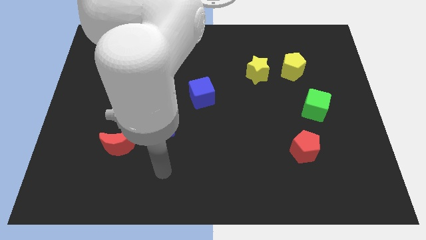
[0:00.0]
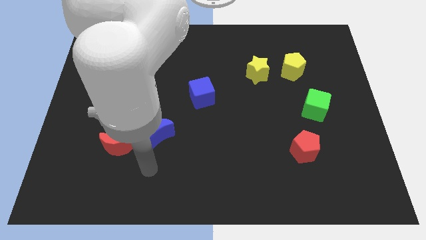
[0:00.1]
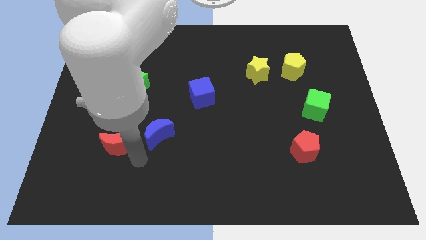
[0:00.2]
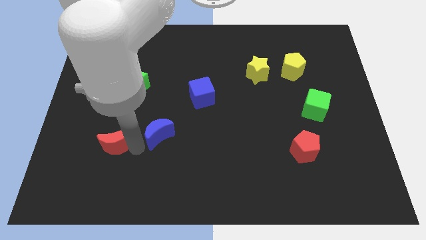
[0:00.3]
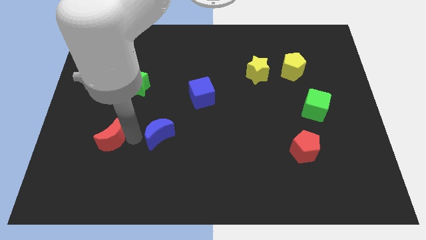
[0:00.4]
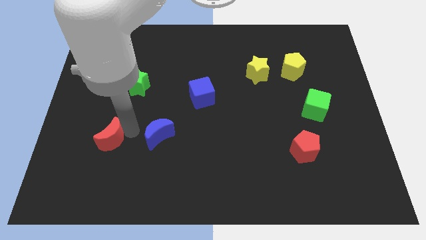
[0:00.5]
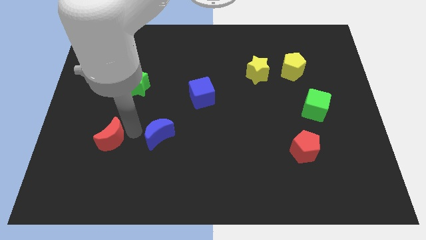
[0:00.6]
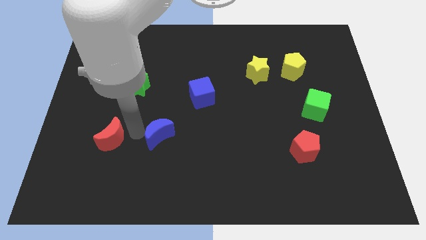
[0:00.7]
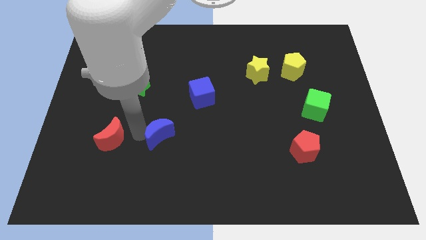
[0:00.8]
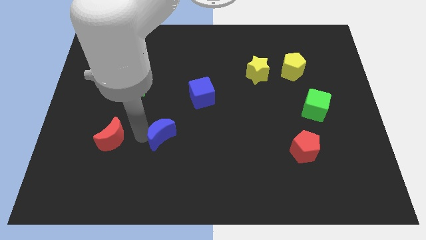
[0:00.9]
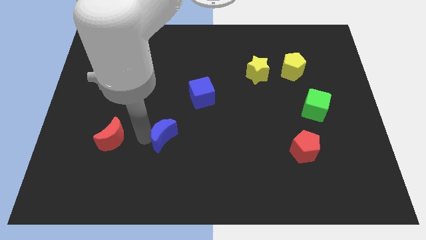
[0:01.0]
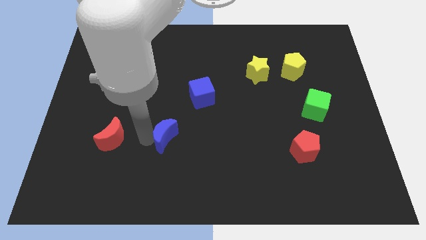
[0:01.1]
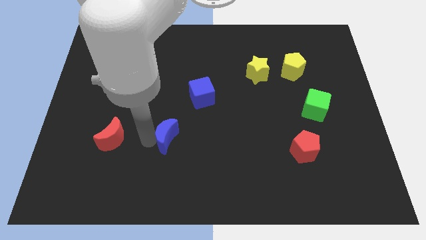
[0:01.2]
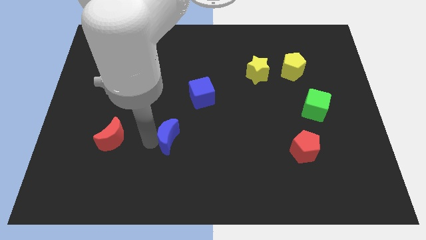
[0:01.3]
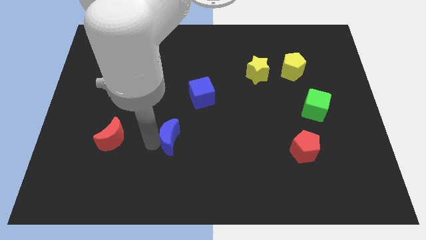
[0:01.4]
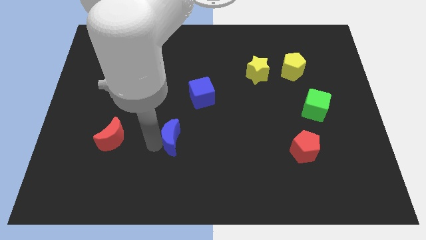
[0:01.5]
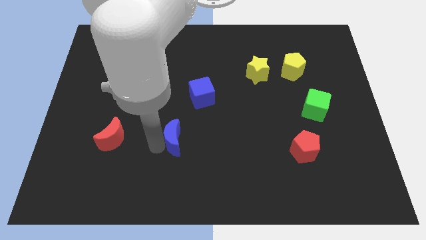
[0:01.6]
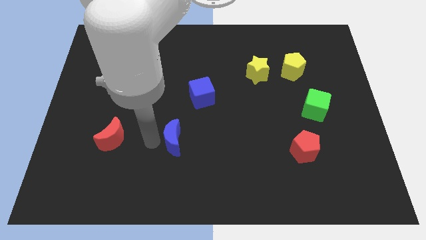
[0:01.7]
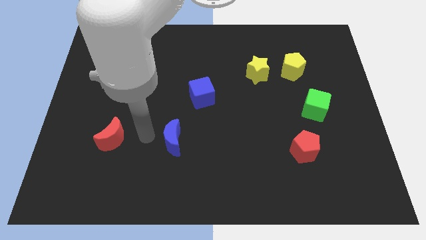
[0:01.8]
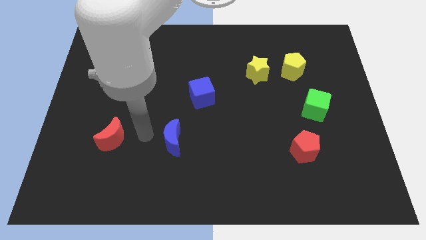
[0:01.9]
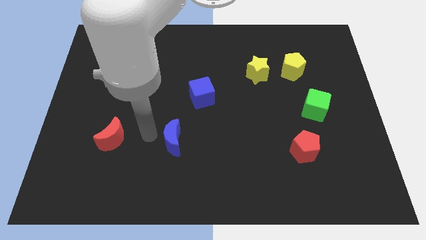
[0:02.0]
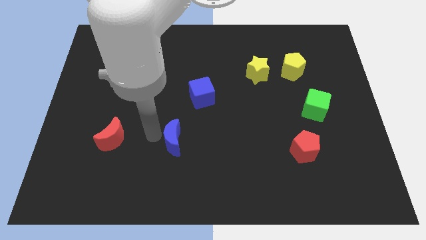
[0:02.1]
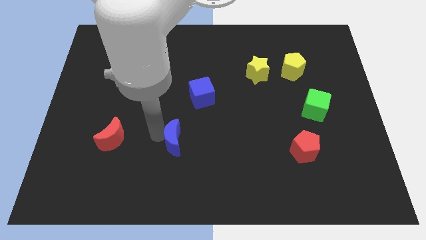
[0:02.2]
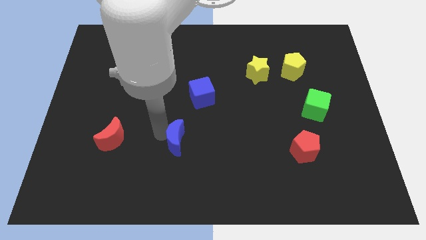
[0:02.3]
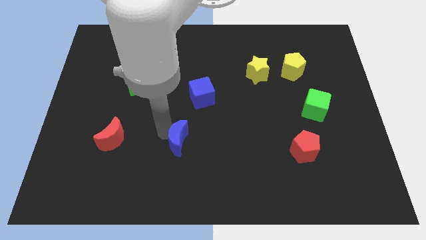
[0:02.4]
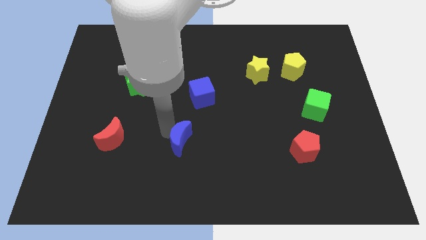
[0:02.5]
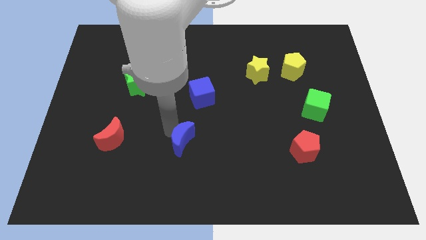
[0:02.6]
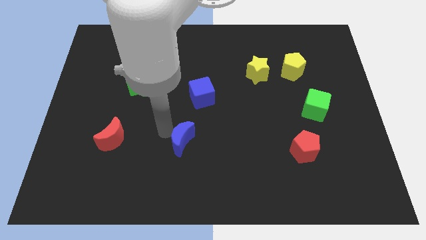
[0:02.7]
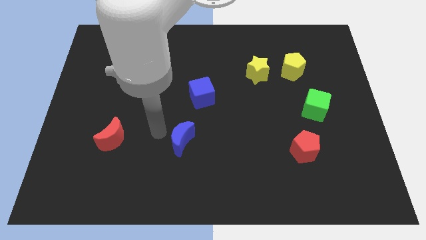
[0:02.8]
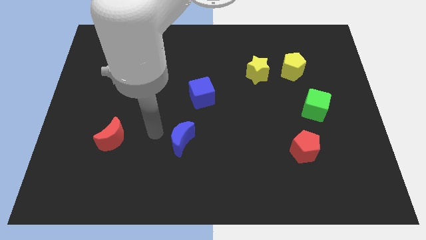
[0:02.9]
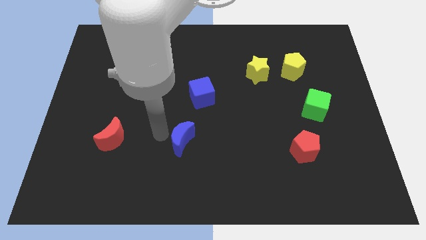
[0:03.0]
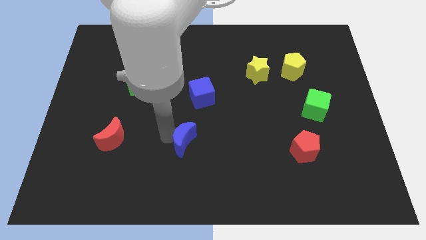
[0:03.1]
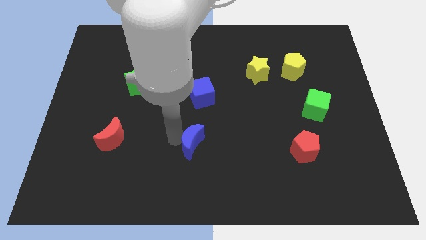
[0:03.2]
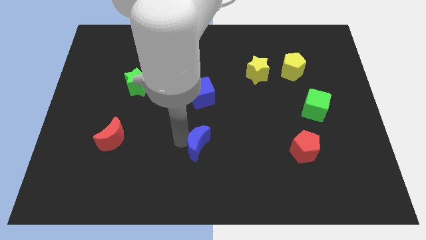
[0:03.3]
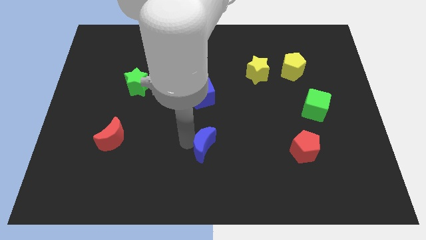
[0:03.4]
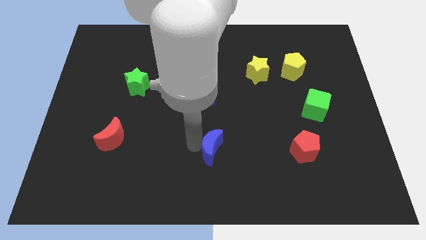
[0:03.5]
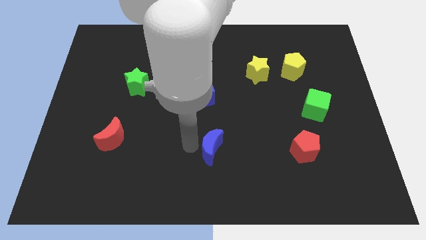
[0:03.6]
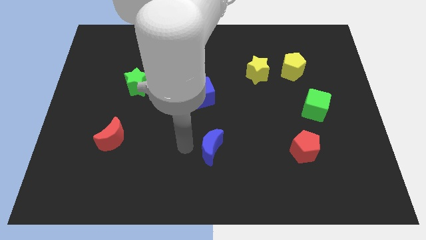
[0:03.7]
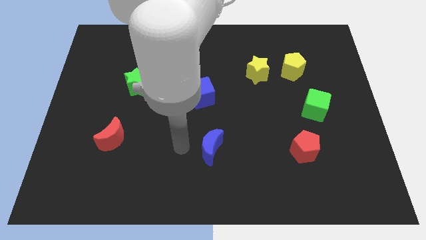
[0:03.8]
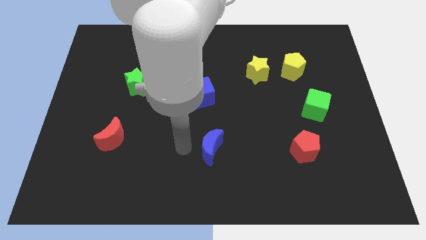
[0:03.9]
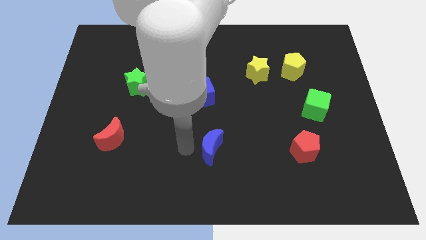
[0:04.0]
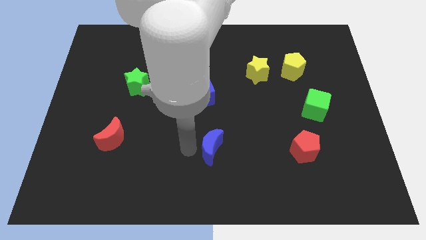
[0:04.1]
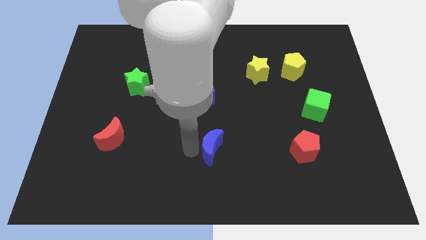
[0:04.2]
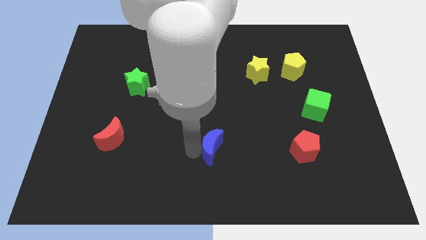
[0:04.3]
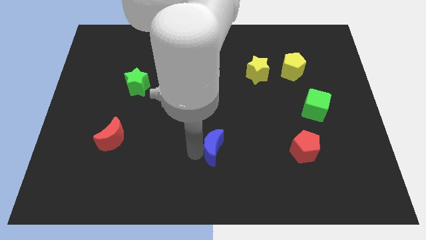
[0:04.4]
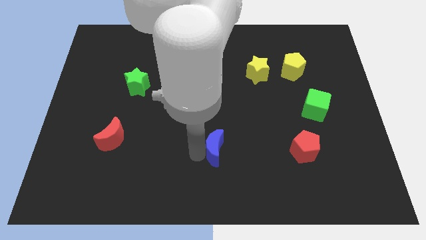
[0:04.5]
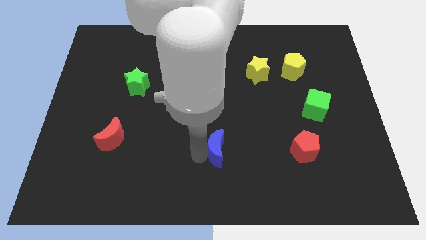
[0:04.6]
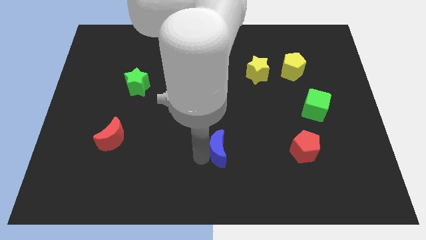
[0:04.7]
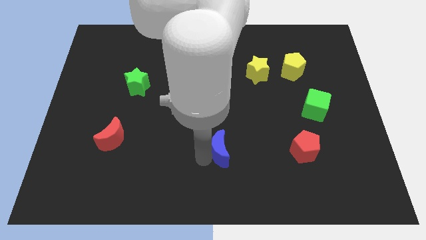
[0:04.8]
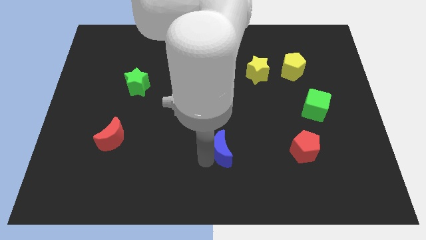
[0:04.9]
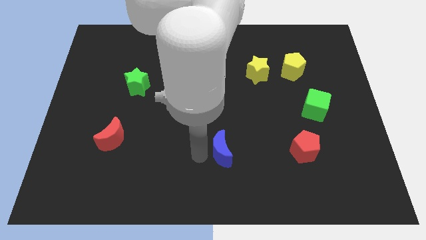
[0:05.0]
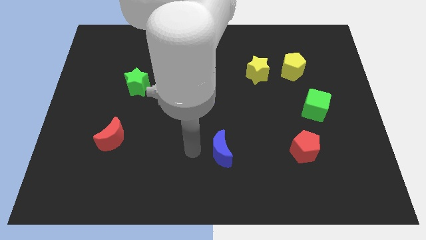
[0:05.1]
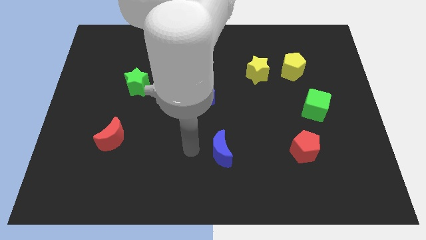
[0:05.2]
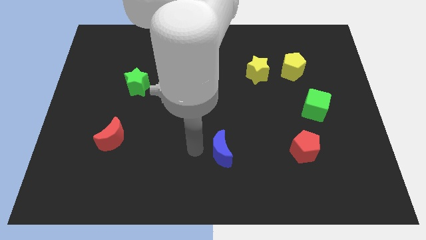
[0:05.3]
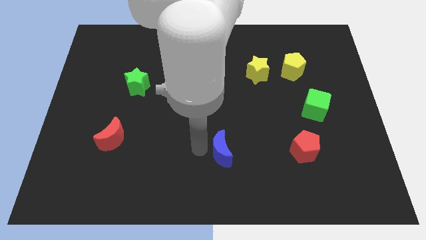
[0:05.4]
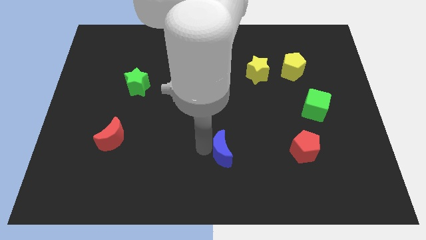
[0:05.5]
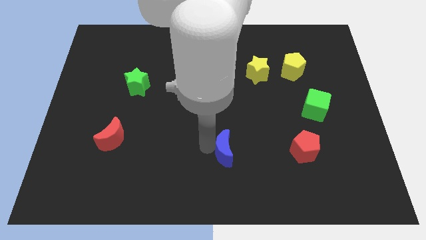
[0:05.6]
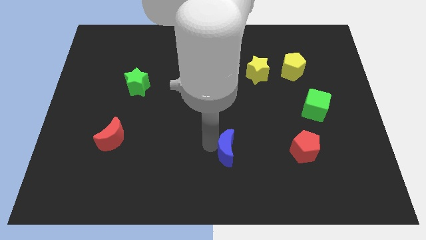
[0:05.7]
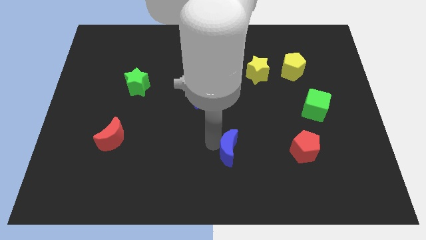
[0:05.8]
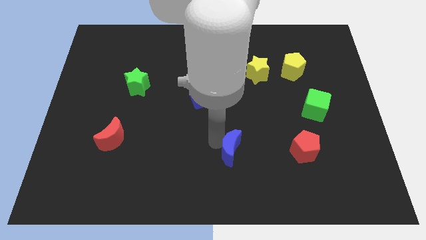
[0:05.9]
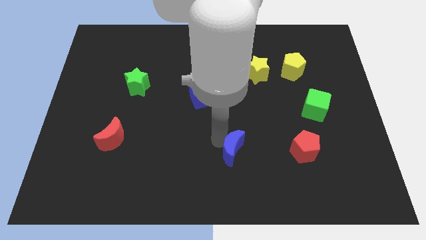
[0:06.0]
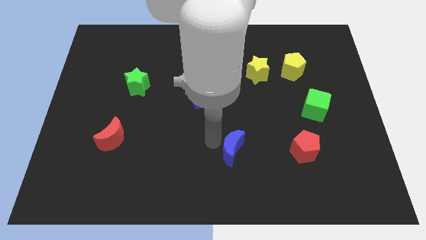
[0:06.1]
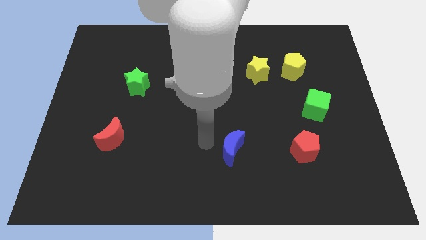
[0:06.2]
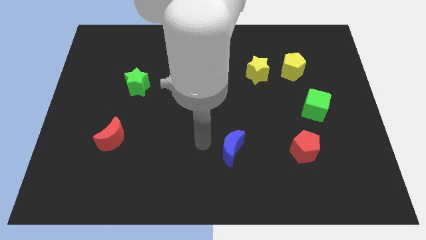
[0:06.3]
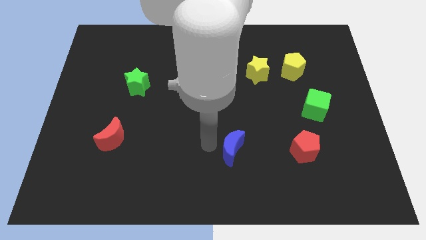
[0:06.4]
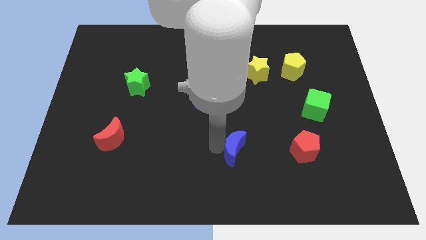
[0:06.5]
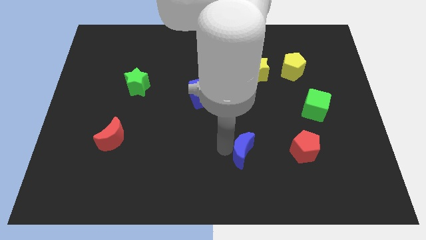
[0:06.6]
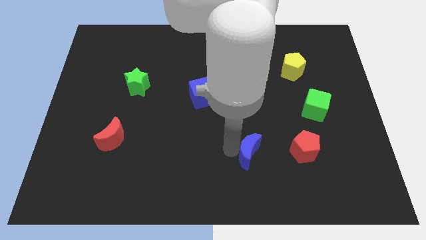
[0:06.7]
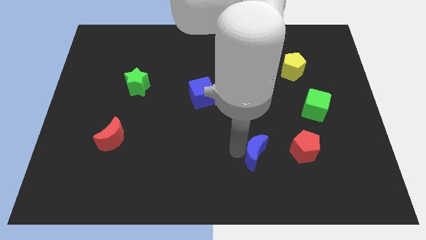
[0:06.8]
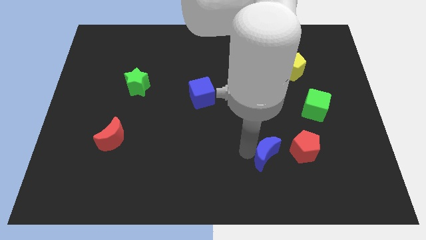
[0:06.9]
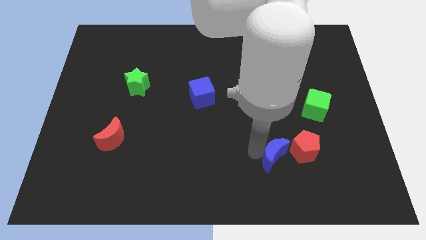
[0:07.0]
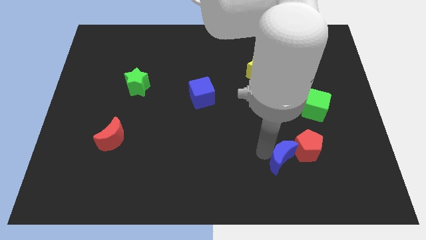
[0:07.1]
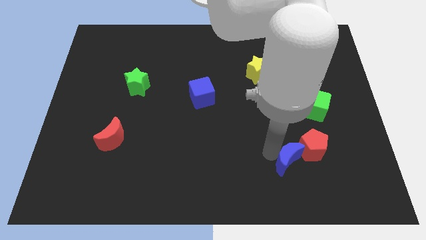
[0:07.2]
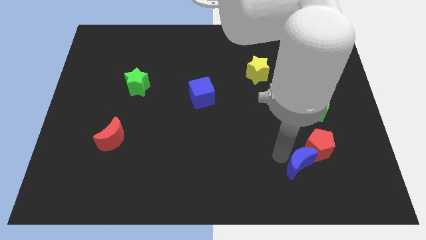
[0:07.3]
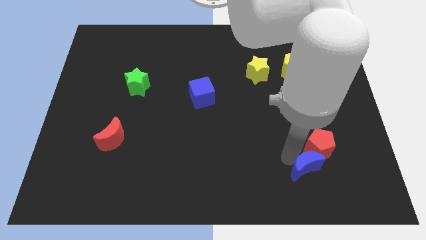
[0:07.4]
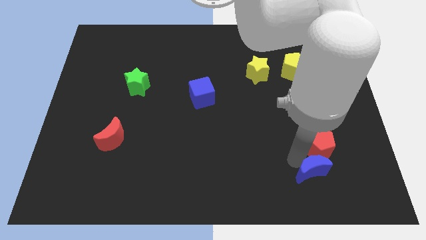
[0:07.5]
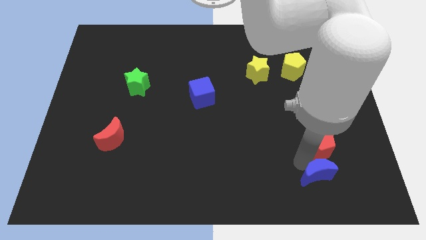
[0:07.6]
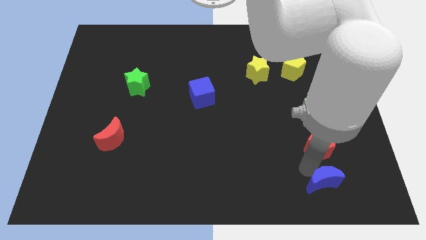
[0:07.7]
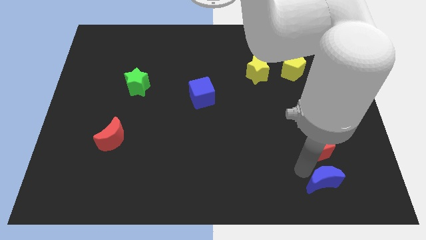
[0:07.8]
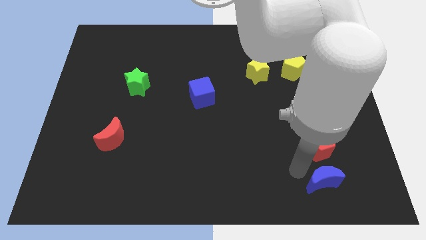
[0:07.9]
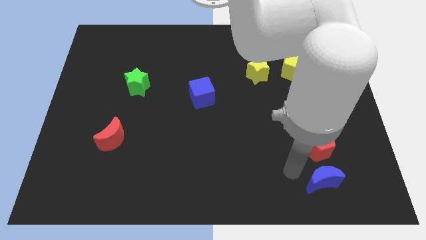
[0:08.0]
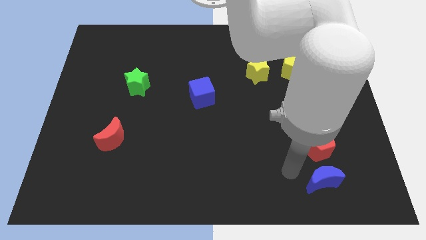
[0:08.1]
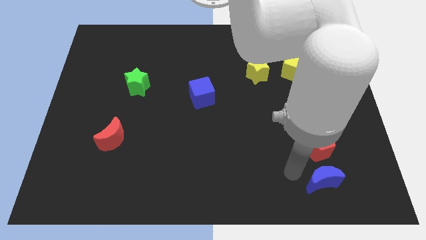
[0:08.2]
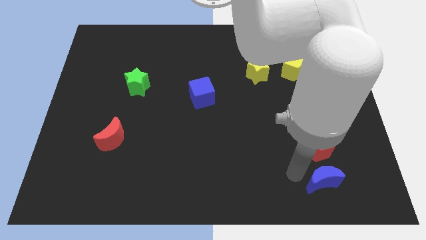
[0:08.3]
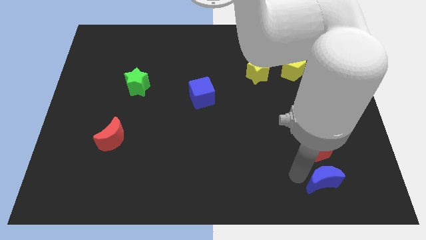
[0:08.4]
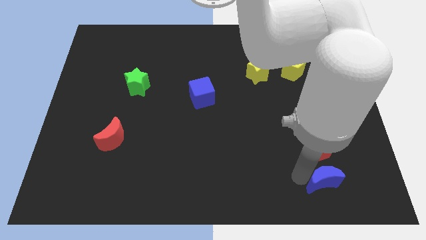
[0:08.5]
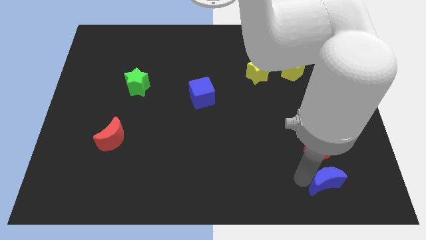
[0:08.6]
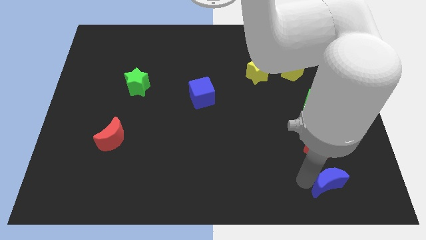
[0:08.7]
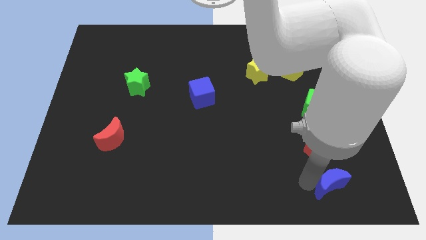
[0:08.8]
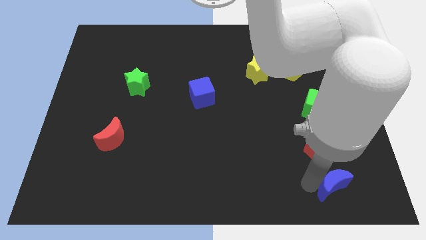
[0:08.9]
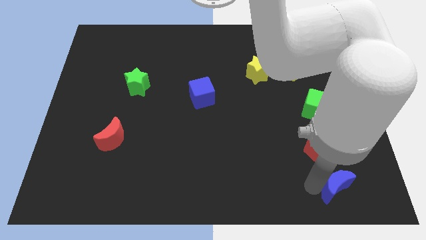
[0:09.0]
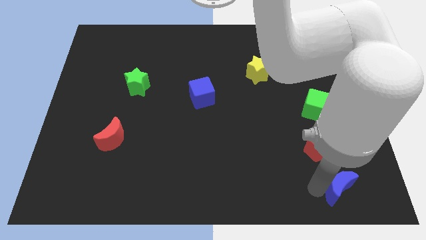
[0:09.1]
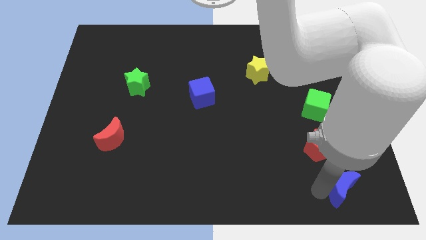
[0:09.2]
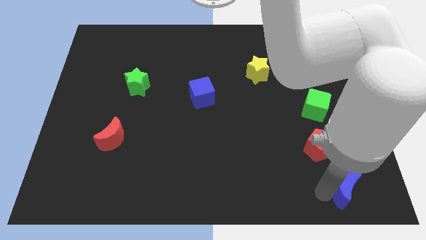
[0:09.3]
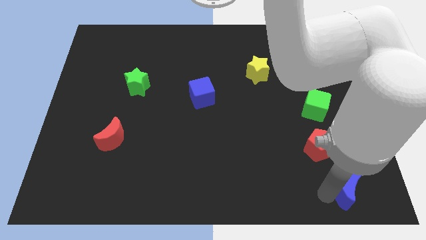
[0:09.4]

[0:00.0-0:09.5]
put the blue moon to the bottom right of the board
